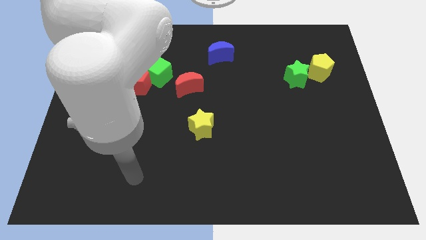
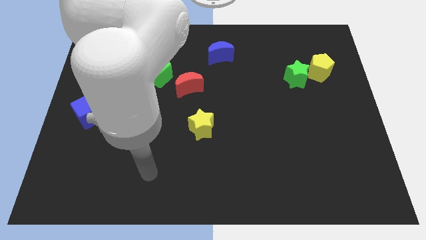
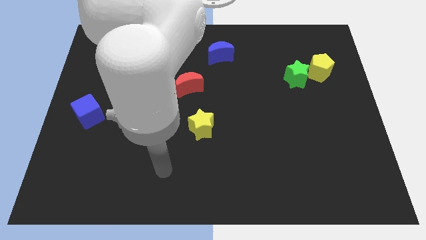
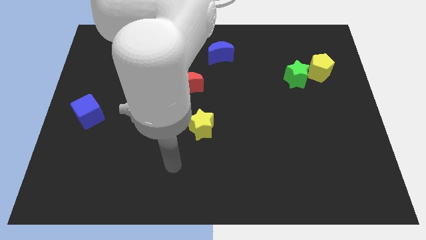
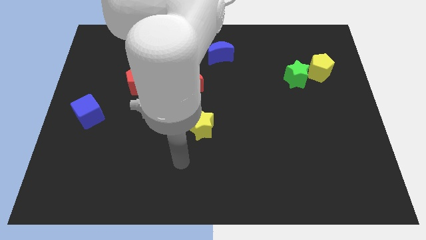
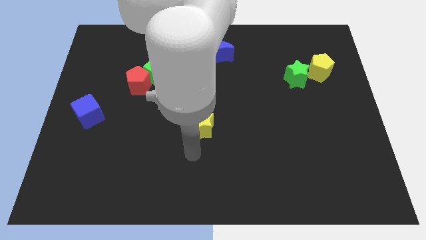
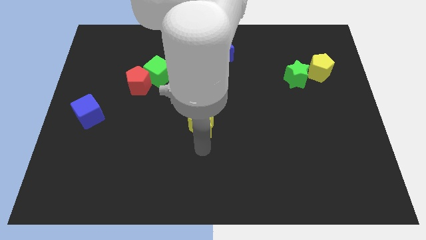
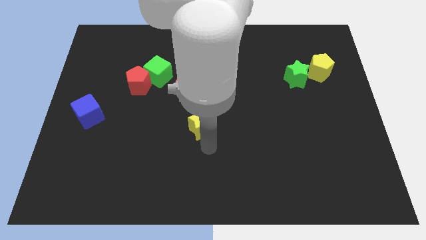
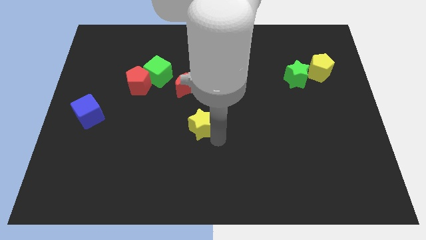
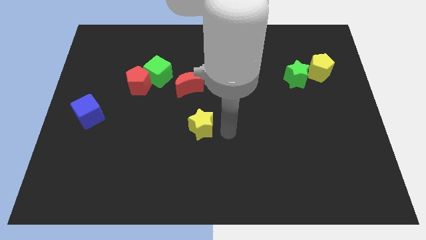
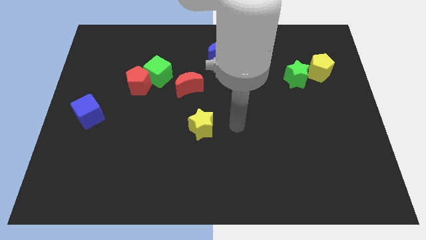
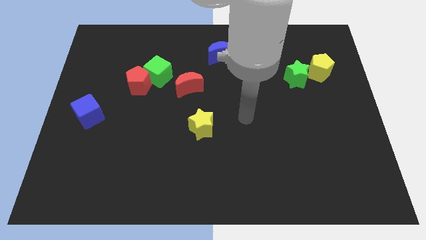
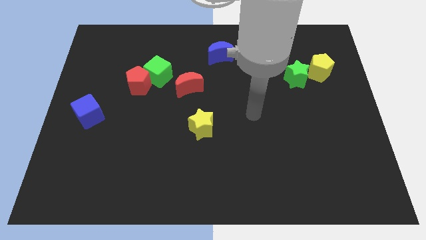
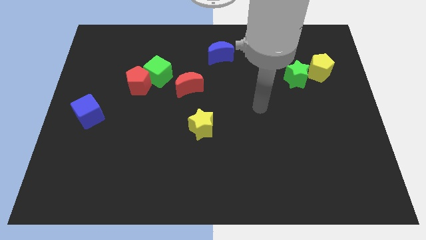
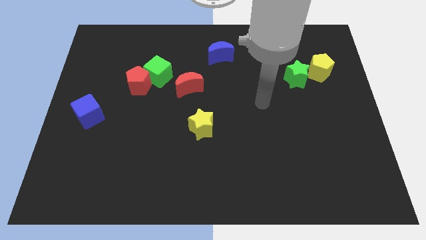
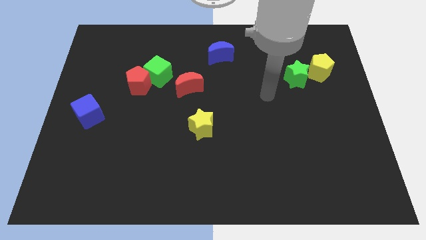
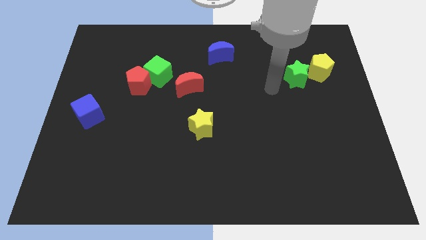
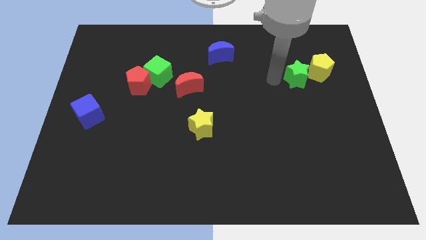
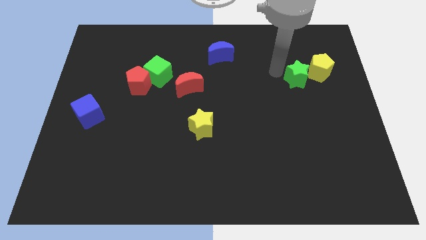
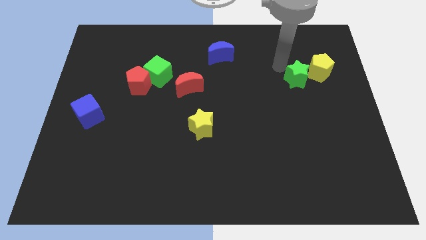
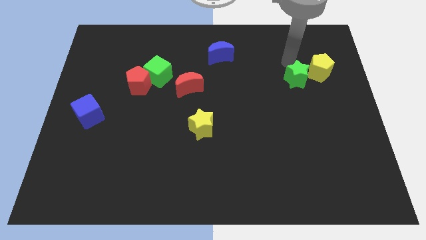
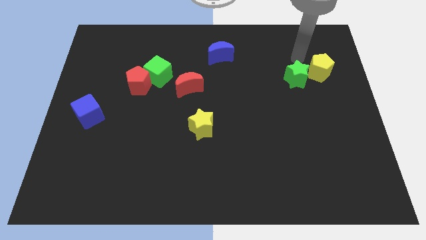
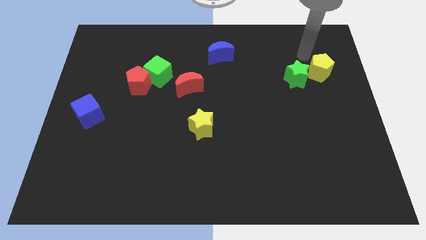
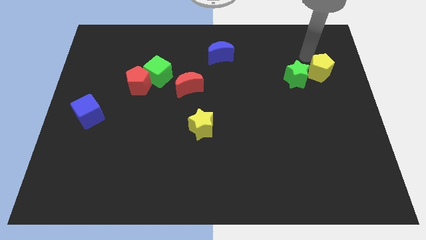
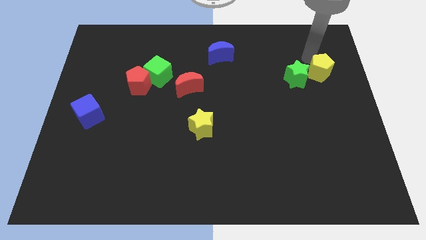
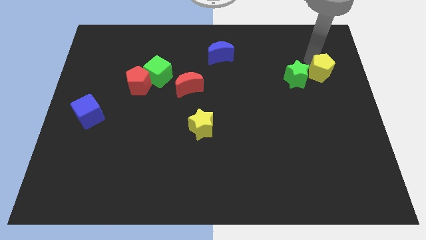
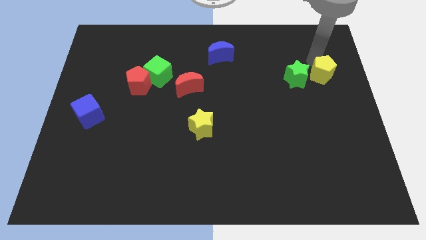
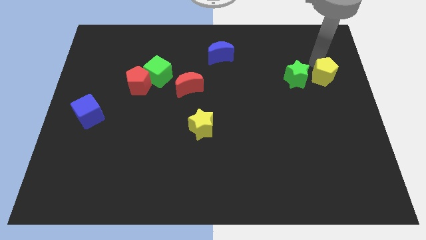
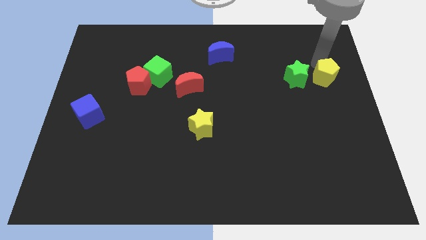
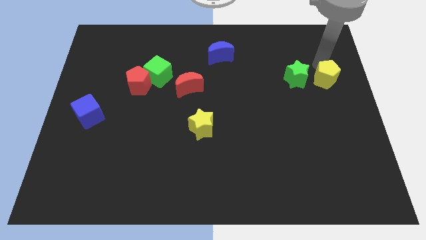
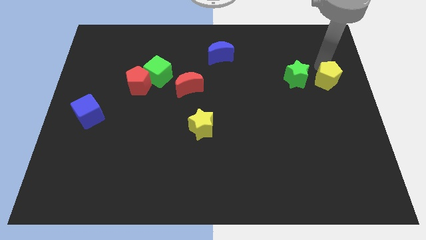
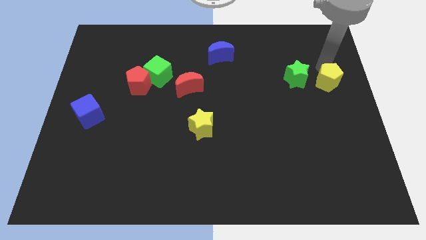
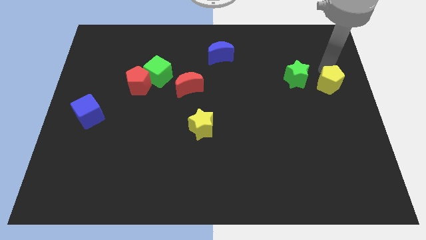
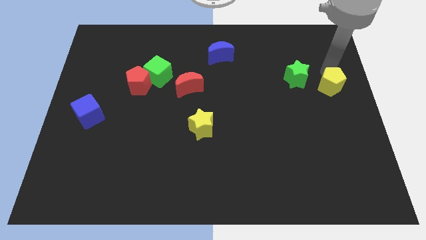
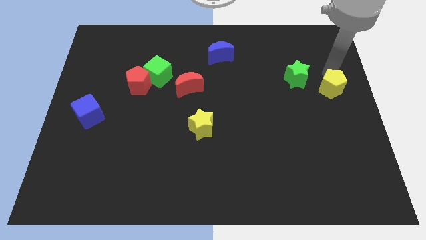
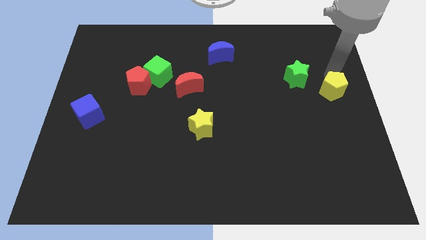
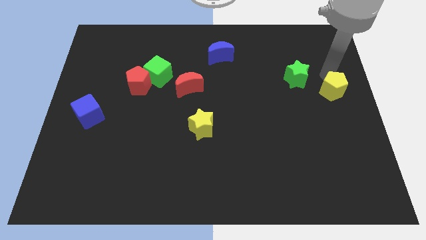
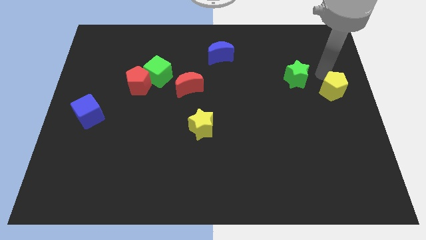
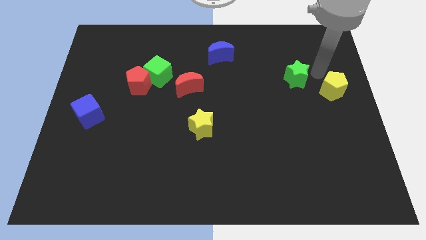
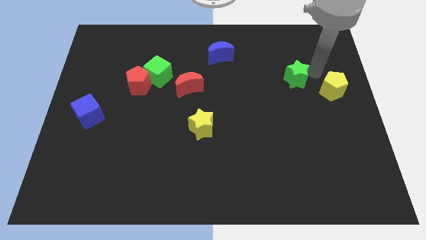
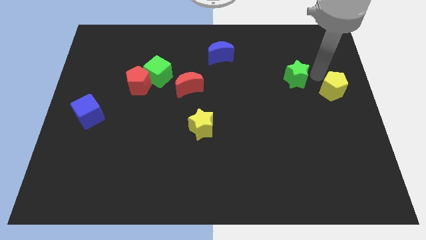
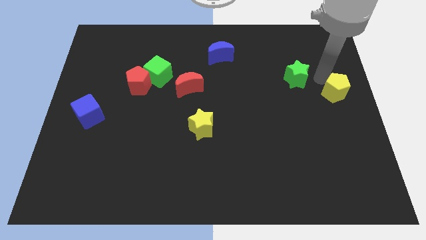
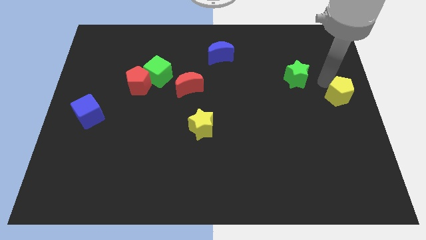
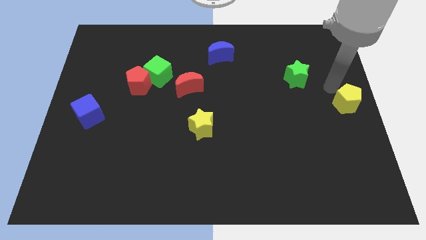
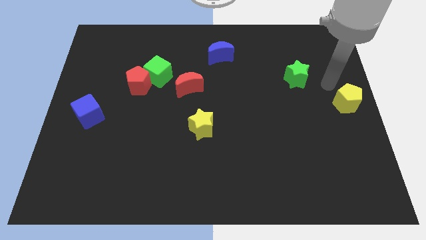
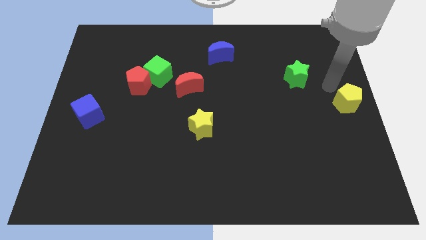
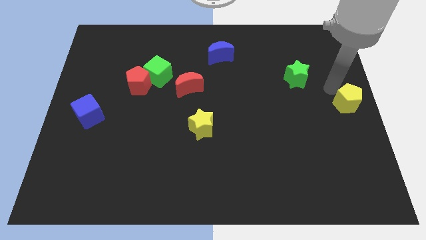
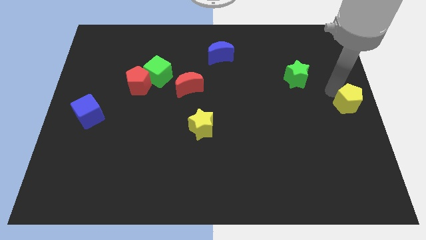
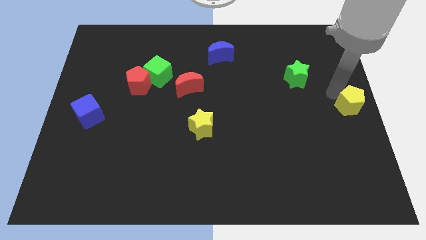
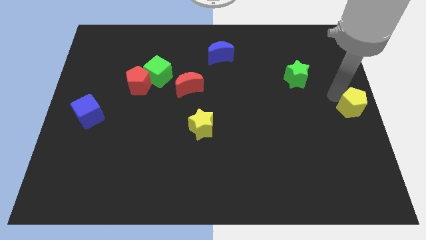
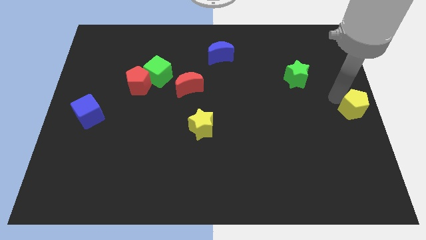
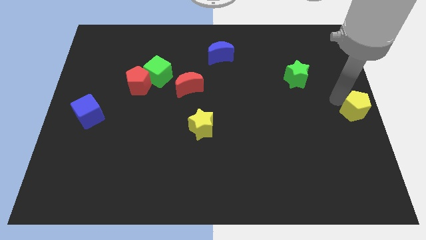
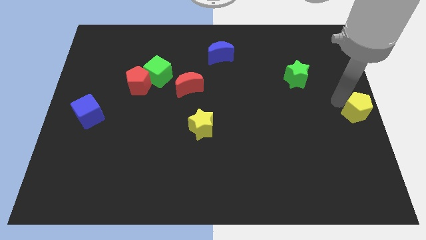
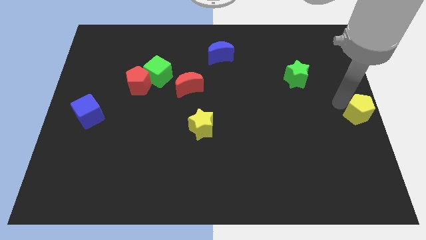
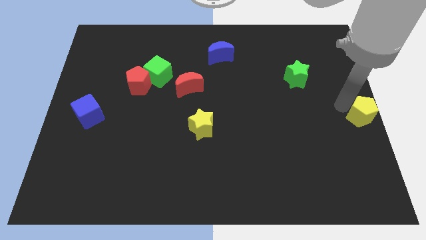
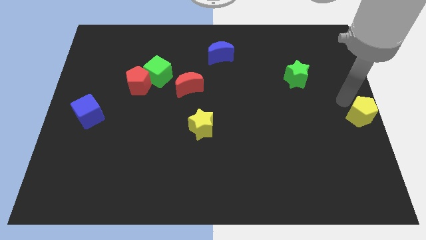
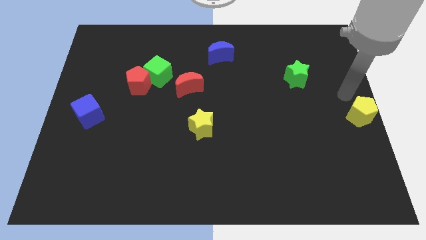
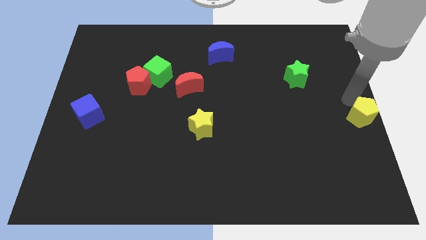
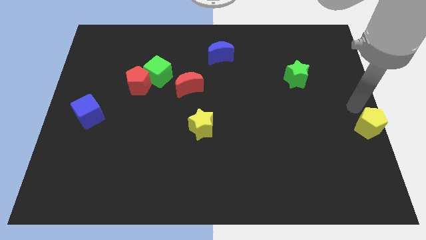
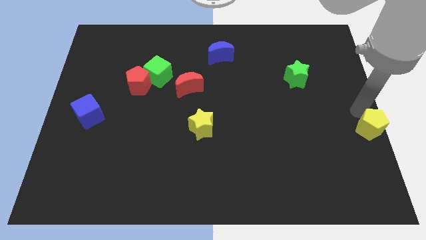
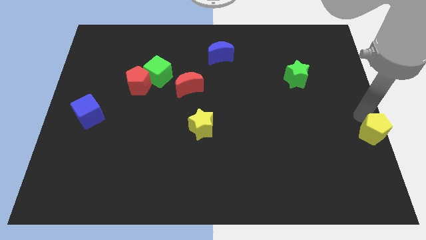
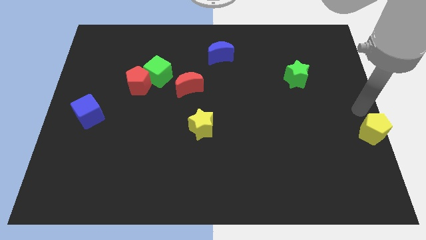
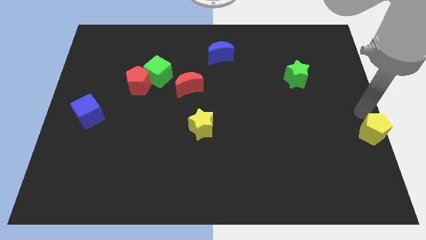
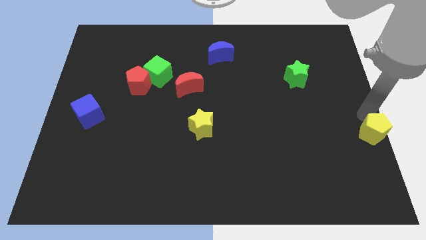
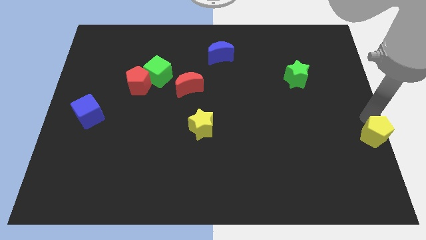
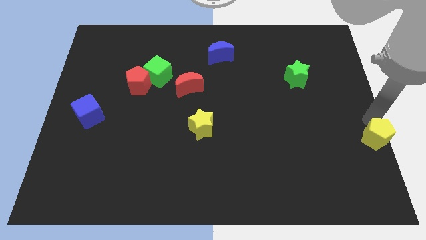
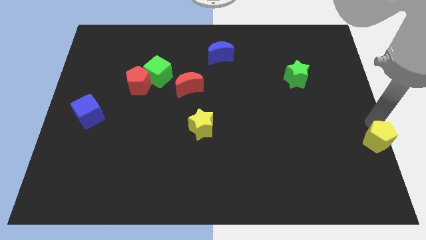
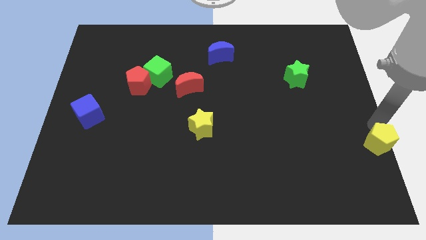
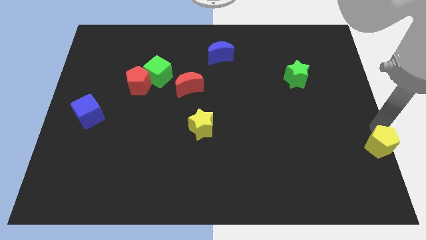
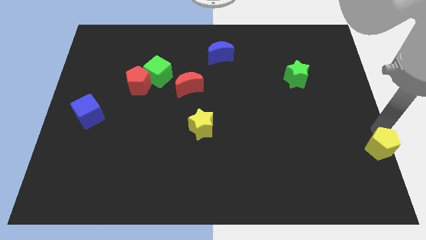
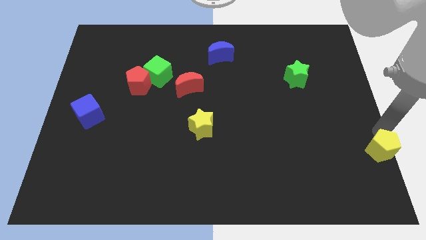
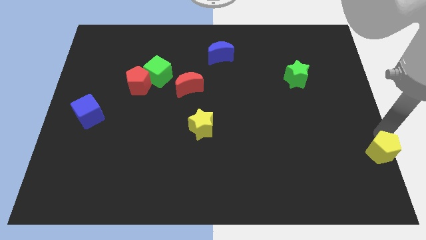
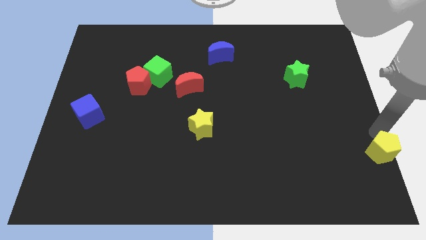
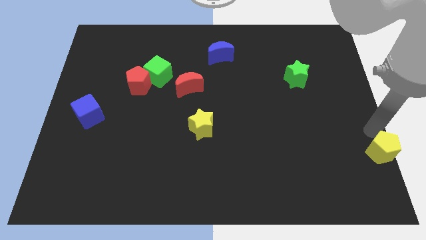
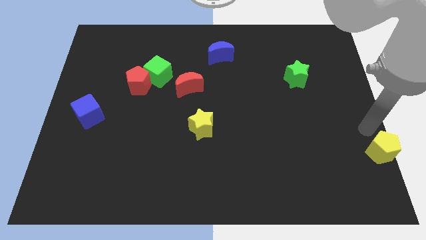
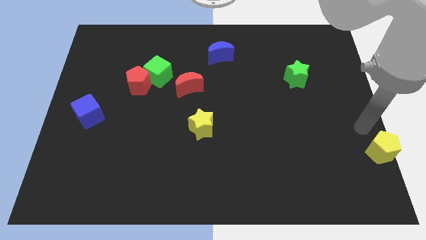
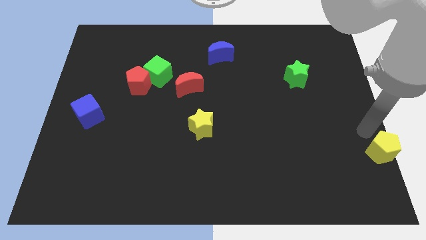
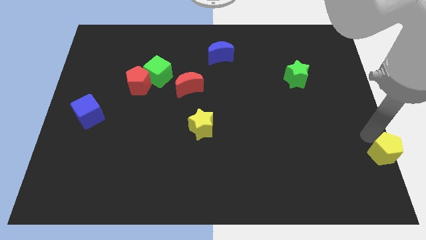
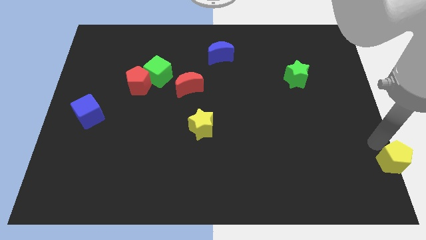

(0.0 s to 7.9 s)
put the yellow pentagon to the bottom right
